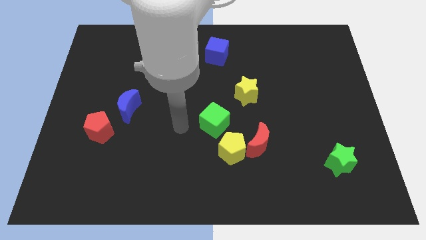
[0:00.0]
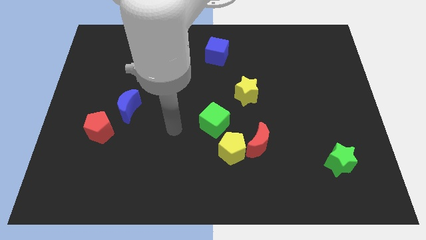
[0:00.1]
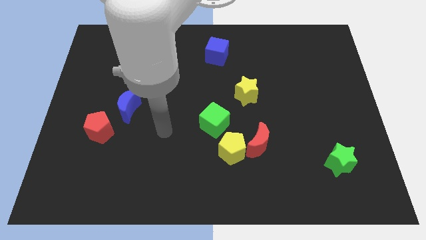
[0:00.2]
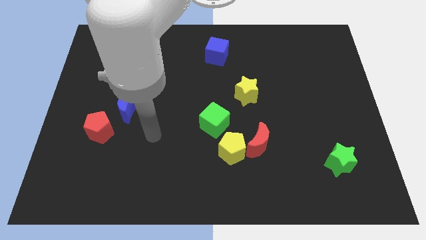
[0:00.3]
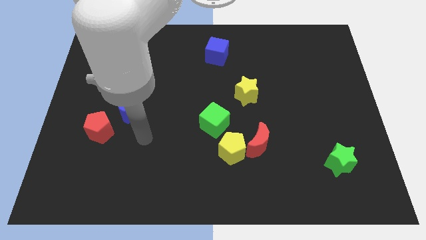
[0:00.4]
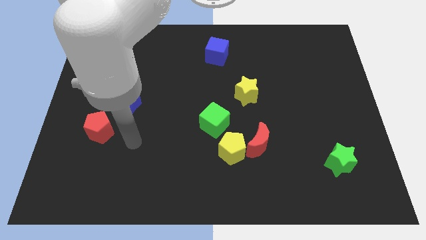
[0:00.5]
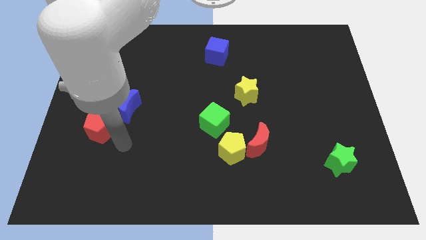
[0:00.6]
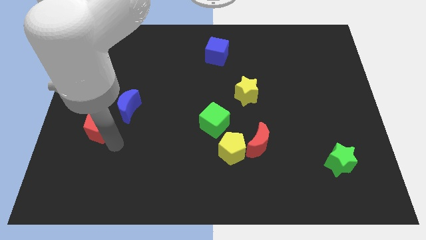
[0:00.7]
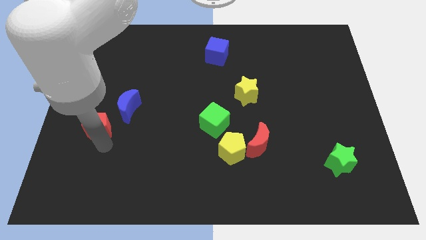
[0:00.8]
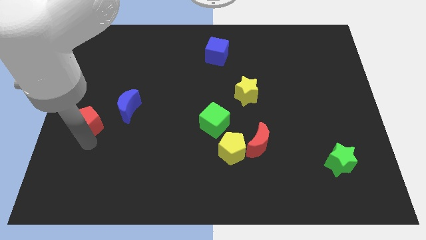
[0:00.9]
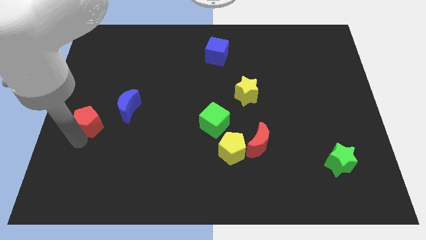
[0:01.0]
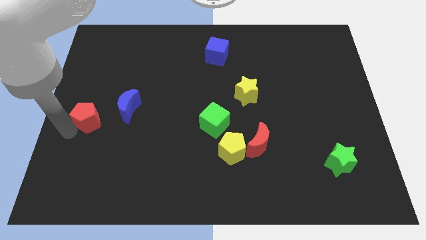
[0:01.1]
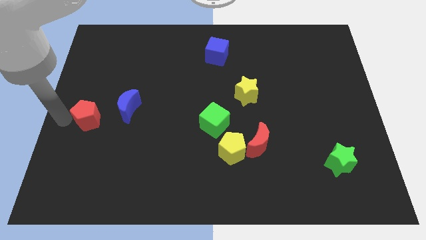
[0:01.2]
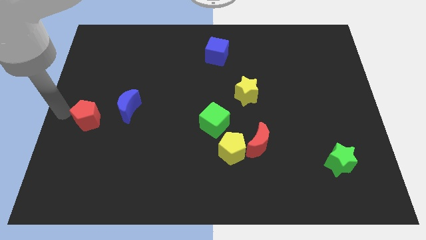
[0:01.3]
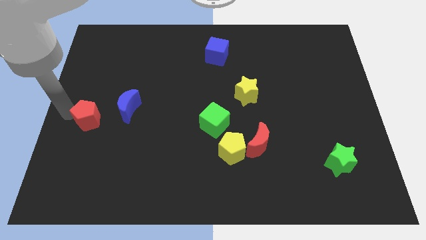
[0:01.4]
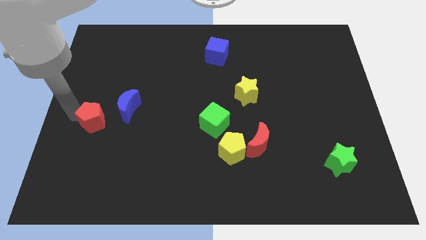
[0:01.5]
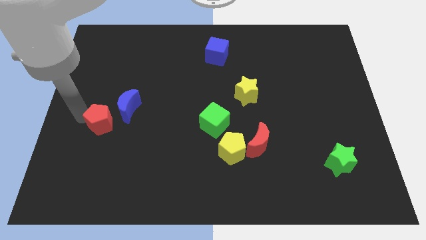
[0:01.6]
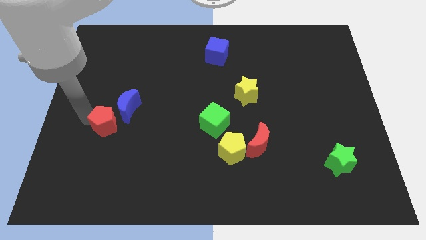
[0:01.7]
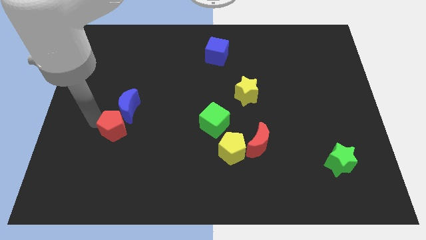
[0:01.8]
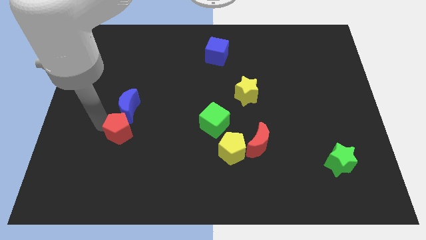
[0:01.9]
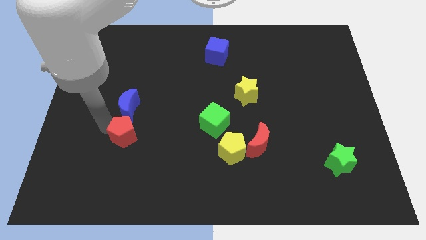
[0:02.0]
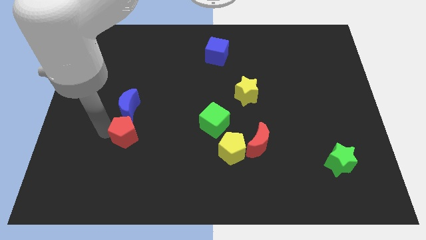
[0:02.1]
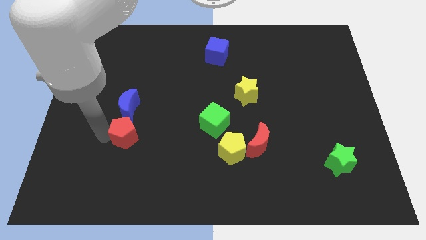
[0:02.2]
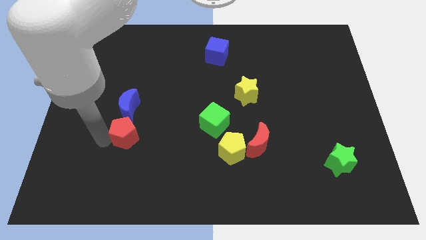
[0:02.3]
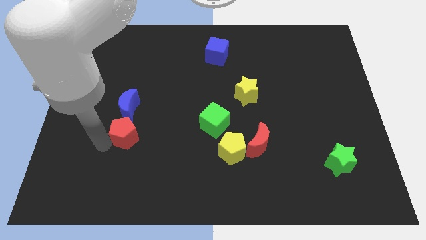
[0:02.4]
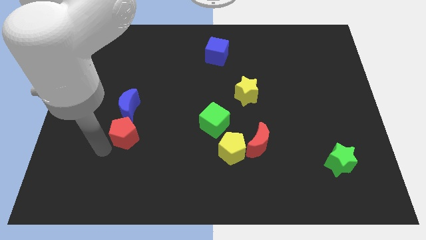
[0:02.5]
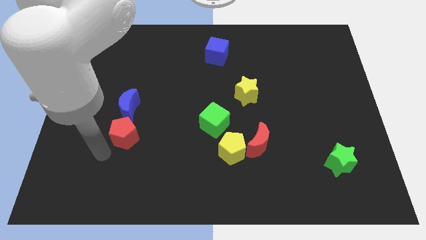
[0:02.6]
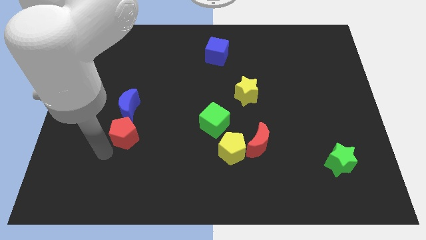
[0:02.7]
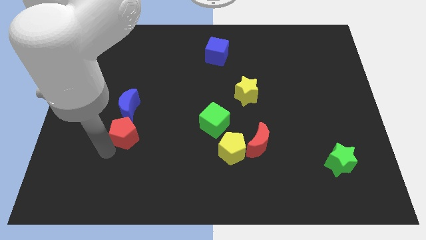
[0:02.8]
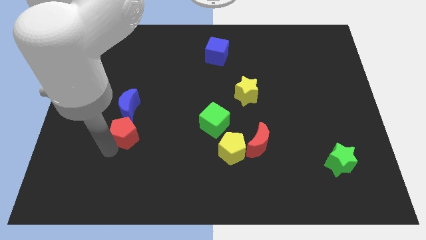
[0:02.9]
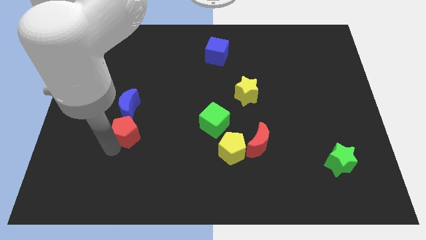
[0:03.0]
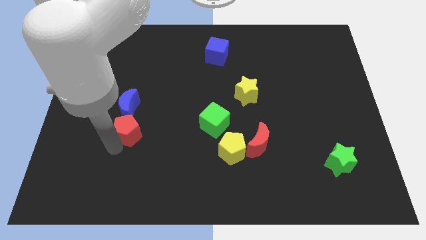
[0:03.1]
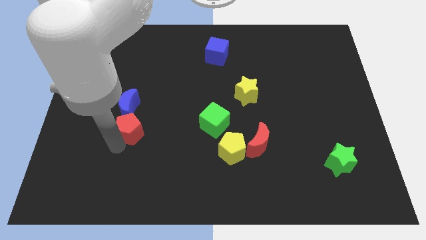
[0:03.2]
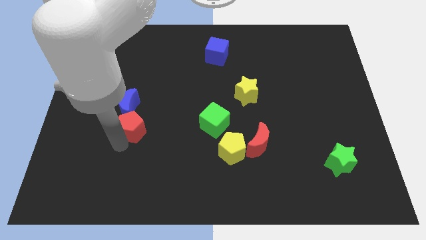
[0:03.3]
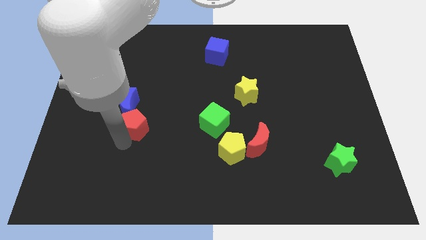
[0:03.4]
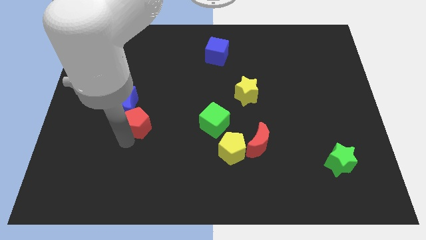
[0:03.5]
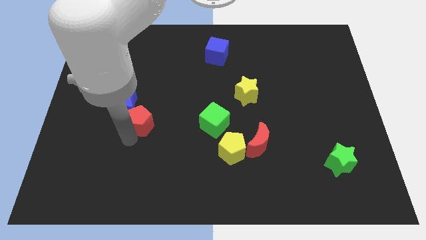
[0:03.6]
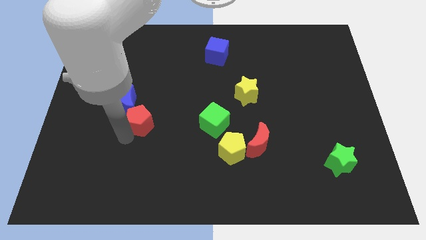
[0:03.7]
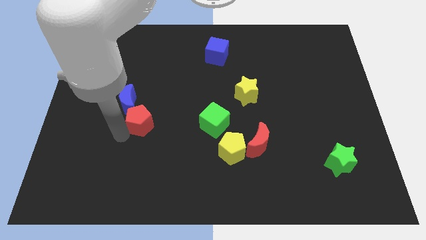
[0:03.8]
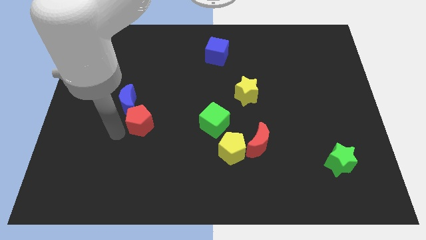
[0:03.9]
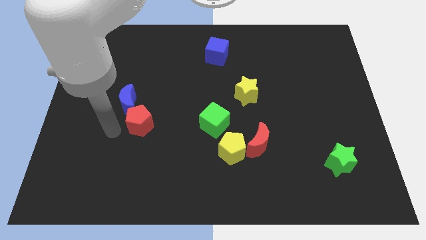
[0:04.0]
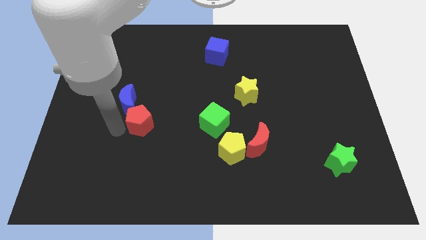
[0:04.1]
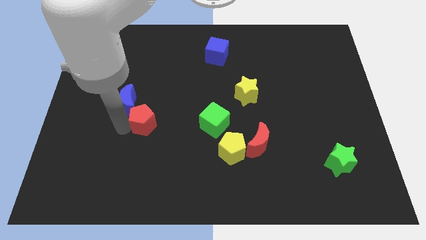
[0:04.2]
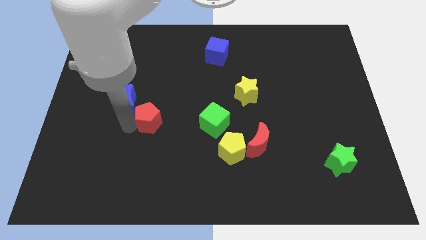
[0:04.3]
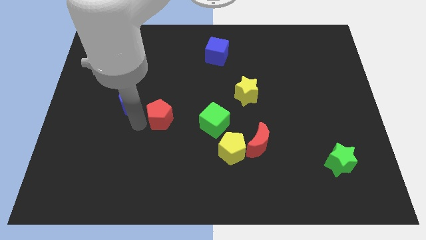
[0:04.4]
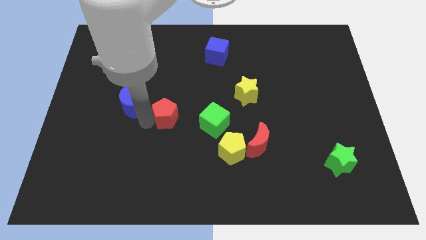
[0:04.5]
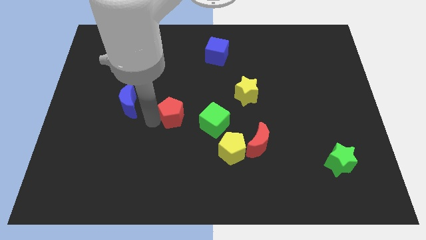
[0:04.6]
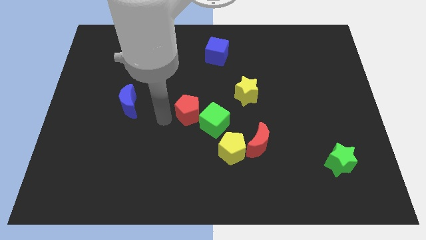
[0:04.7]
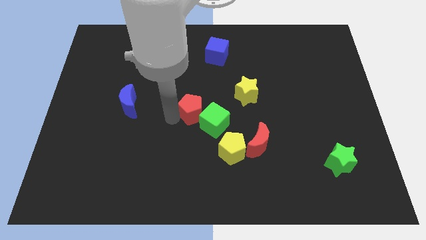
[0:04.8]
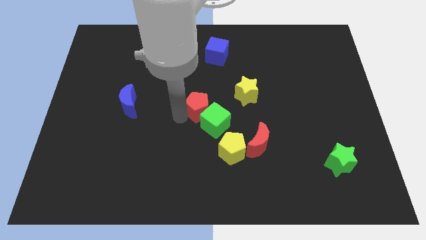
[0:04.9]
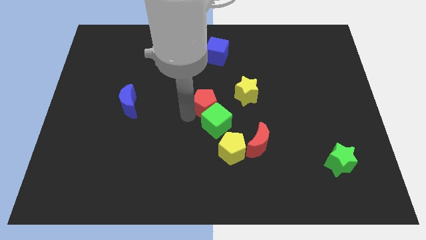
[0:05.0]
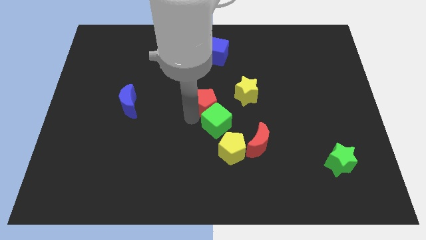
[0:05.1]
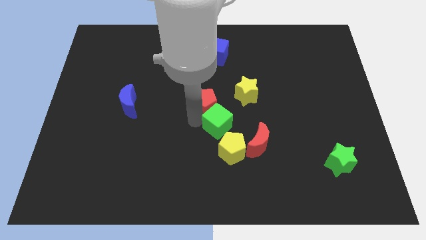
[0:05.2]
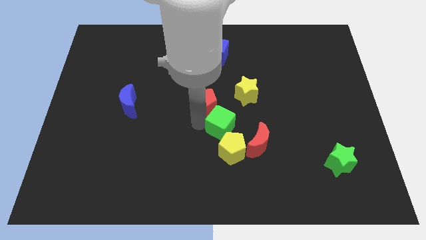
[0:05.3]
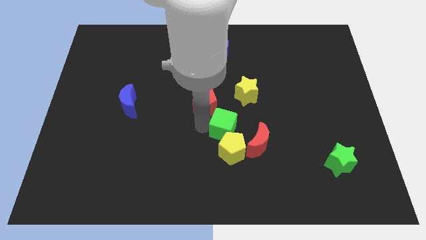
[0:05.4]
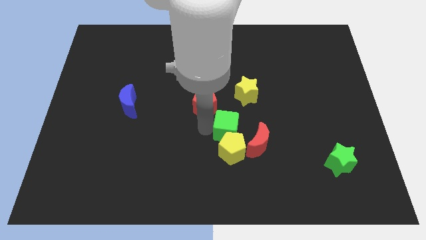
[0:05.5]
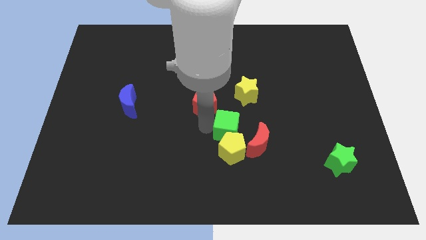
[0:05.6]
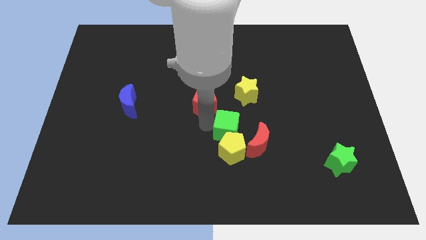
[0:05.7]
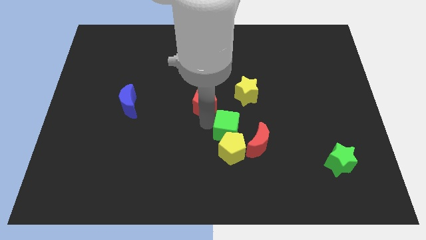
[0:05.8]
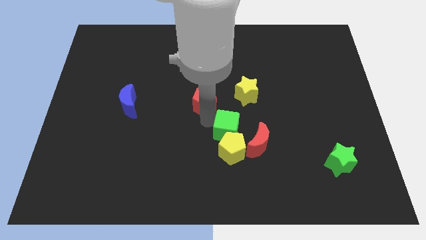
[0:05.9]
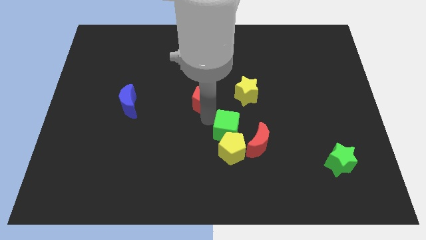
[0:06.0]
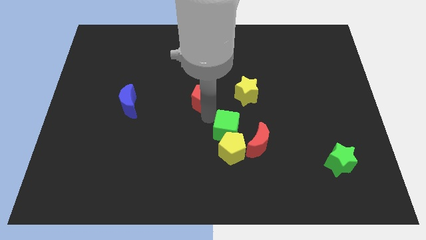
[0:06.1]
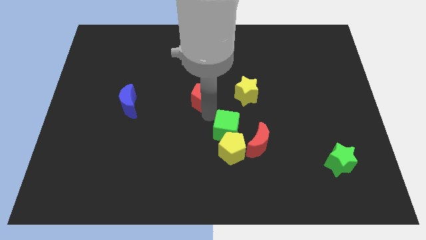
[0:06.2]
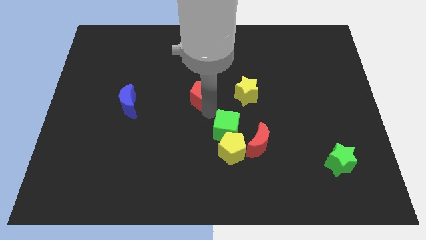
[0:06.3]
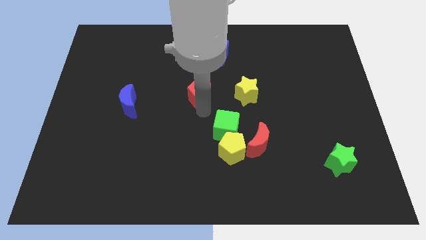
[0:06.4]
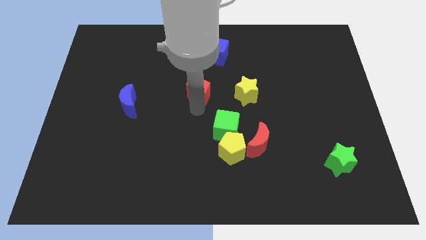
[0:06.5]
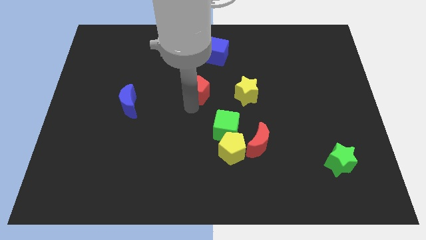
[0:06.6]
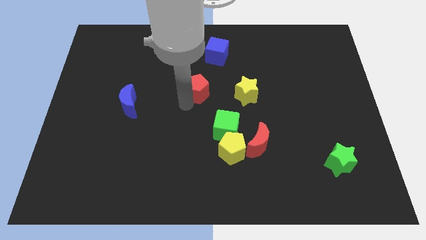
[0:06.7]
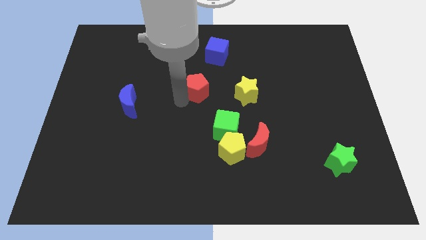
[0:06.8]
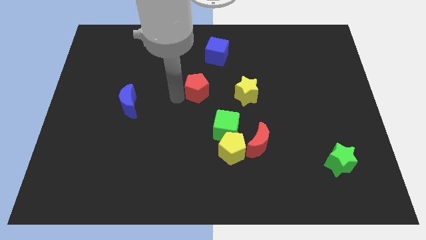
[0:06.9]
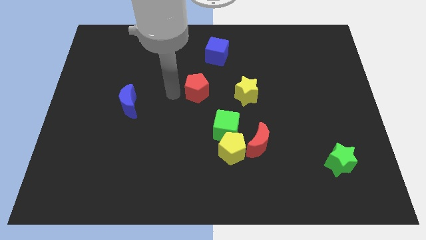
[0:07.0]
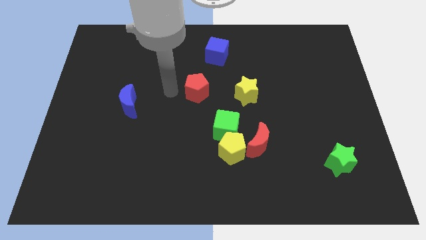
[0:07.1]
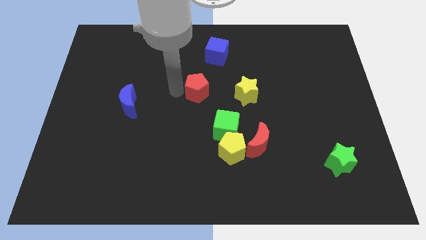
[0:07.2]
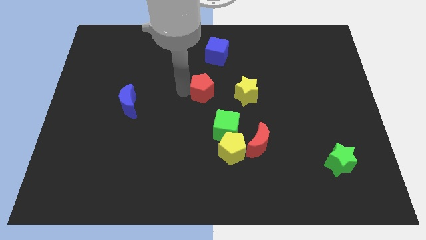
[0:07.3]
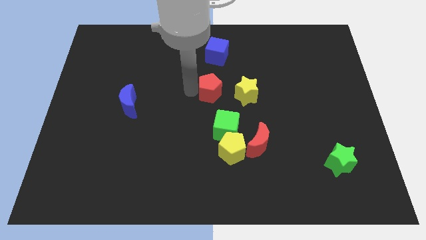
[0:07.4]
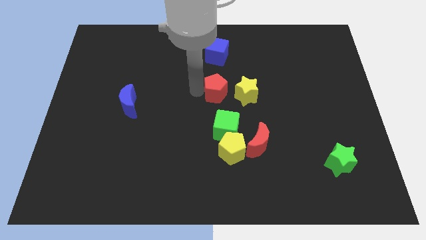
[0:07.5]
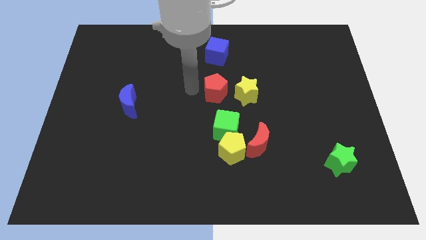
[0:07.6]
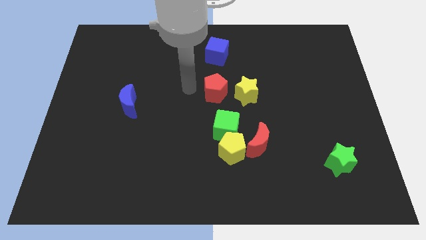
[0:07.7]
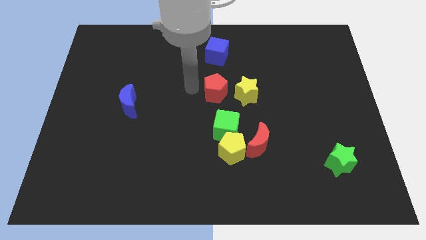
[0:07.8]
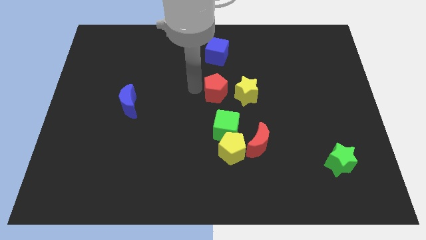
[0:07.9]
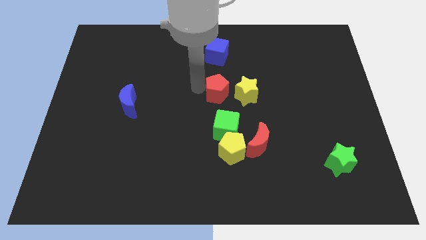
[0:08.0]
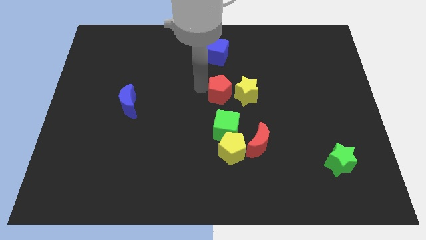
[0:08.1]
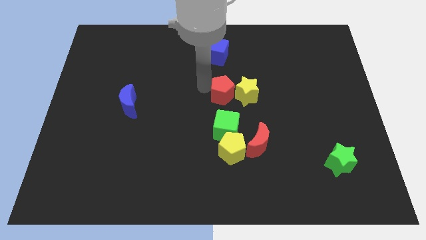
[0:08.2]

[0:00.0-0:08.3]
slide the red pentagon towards the yellow star
